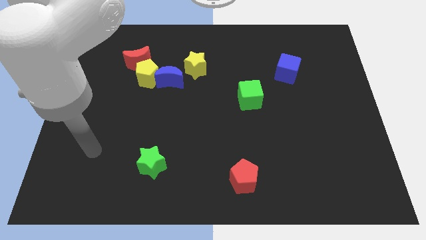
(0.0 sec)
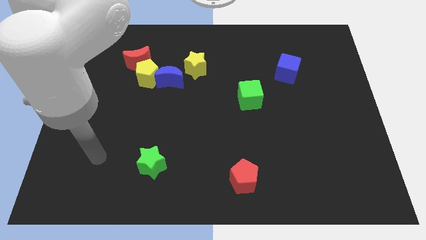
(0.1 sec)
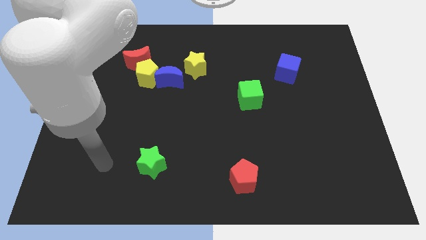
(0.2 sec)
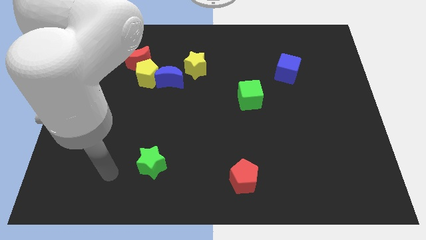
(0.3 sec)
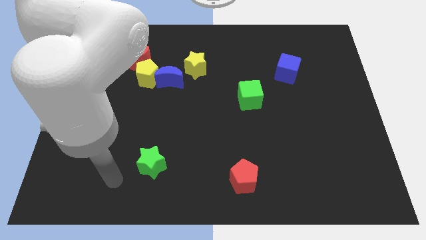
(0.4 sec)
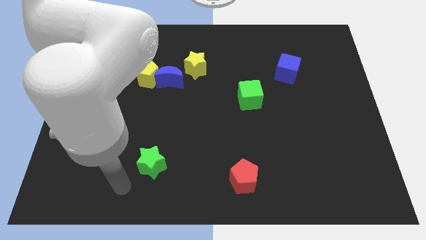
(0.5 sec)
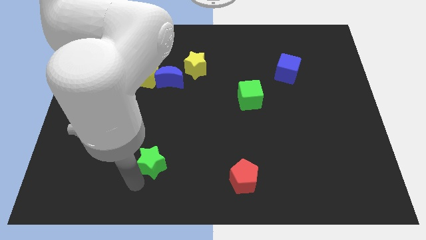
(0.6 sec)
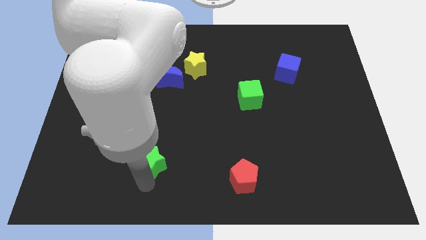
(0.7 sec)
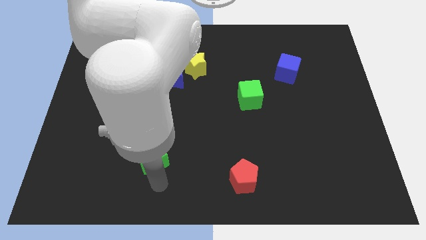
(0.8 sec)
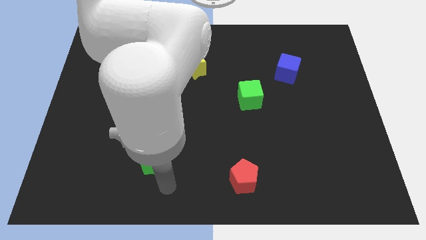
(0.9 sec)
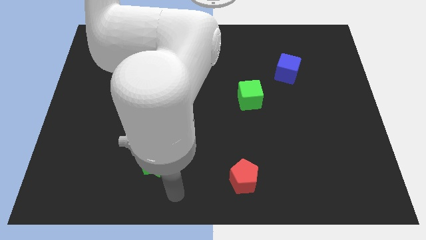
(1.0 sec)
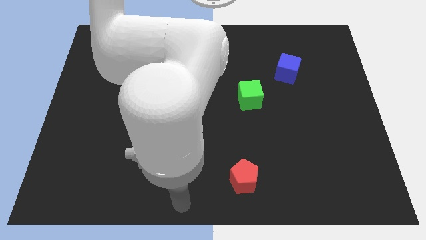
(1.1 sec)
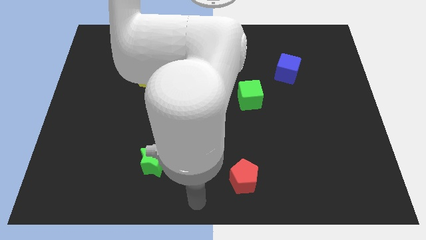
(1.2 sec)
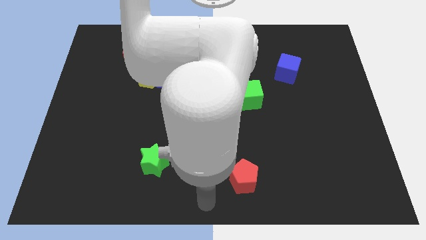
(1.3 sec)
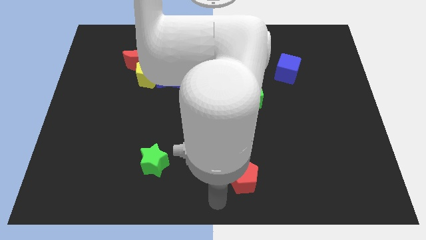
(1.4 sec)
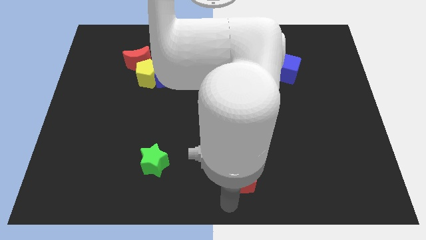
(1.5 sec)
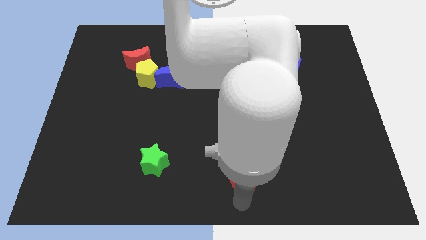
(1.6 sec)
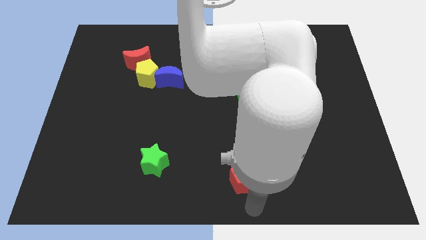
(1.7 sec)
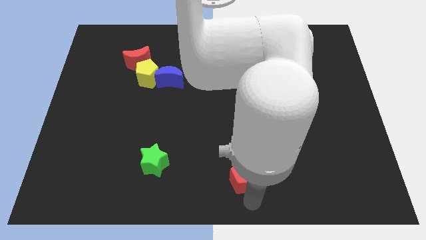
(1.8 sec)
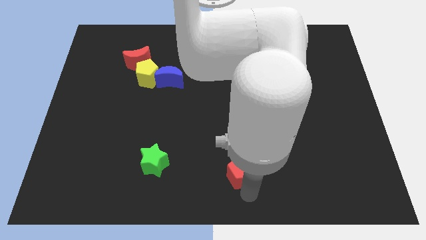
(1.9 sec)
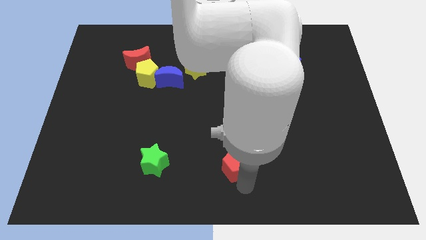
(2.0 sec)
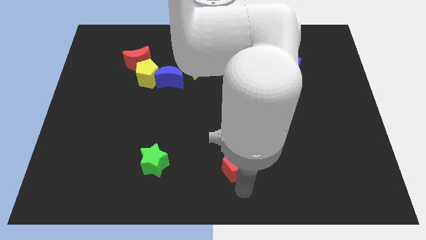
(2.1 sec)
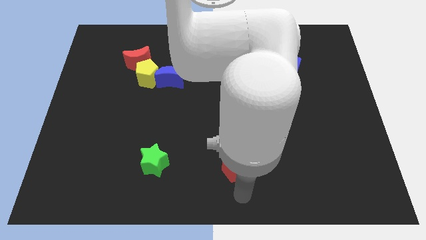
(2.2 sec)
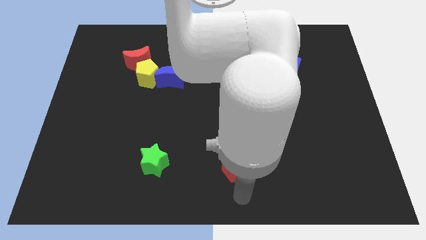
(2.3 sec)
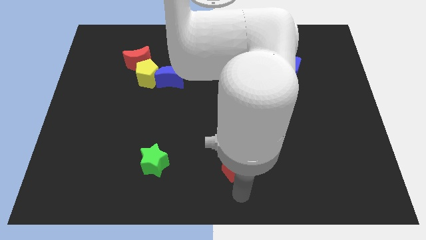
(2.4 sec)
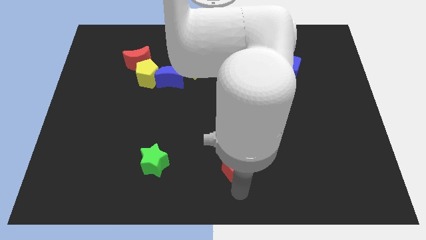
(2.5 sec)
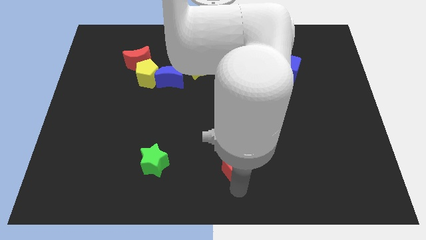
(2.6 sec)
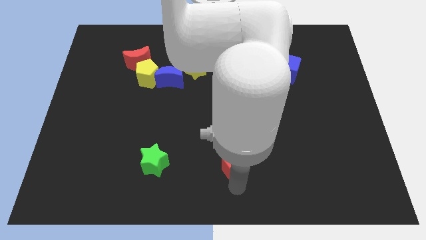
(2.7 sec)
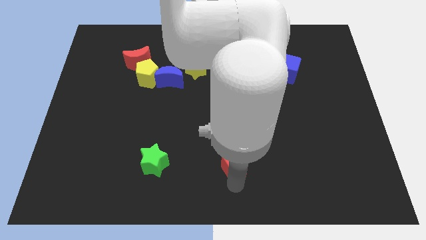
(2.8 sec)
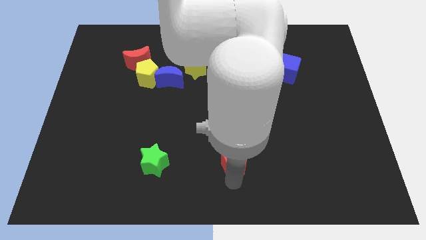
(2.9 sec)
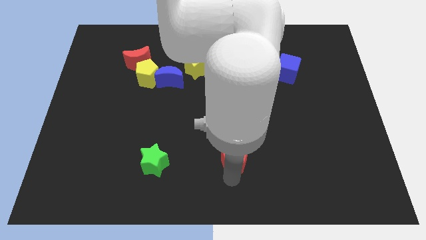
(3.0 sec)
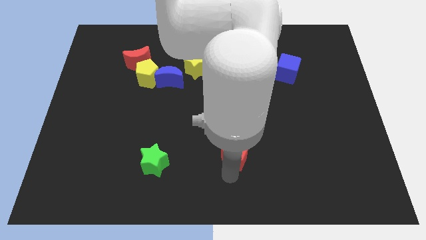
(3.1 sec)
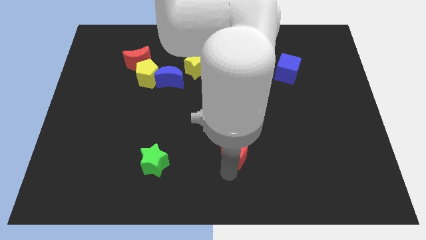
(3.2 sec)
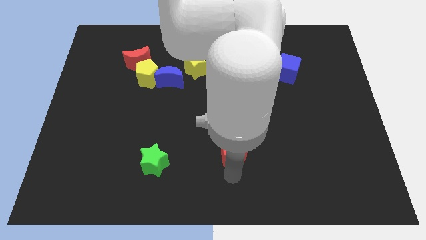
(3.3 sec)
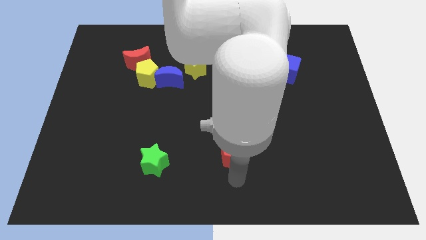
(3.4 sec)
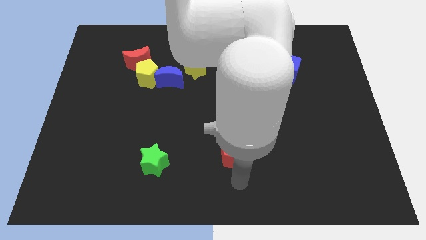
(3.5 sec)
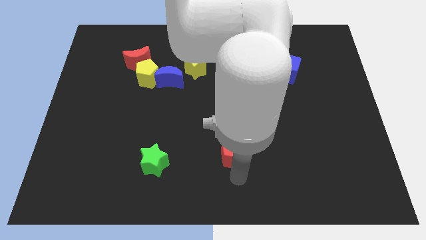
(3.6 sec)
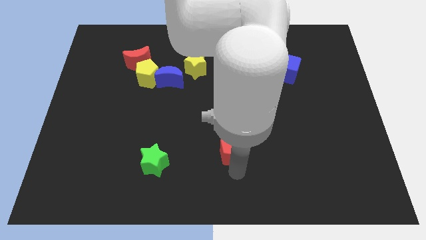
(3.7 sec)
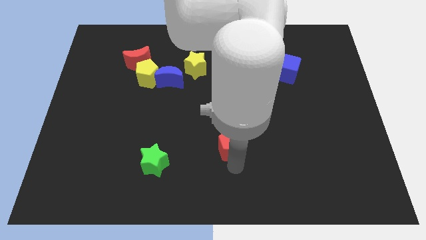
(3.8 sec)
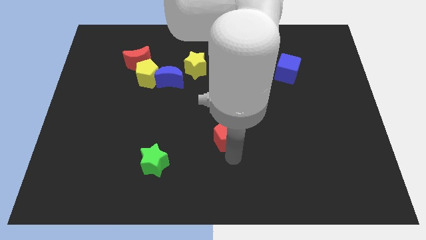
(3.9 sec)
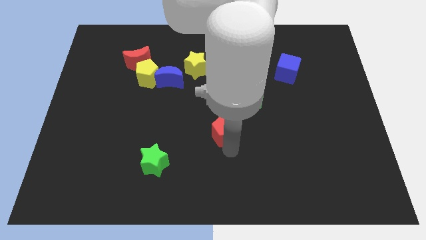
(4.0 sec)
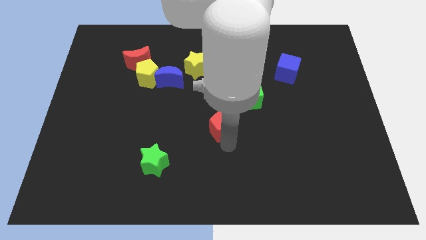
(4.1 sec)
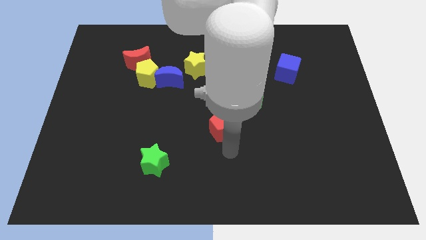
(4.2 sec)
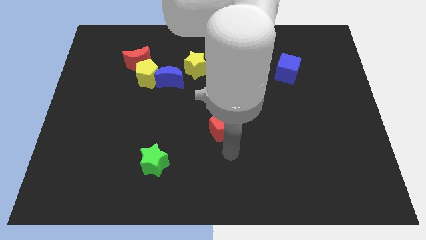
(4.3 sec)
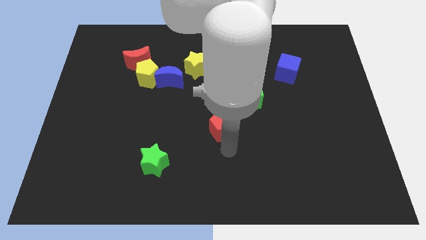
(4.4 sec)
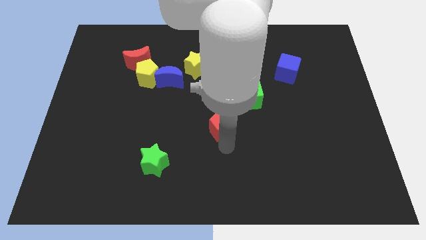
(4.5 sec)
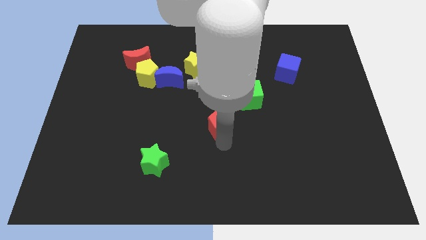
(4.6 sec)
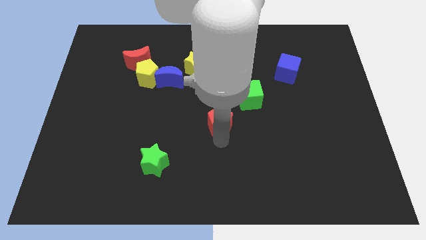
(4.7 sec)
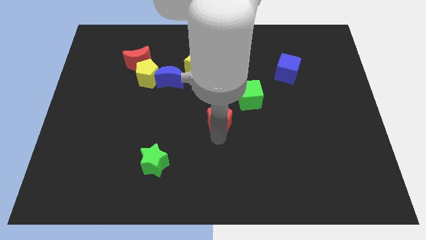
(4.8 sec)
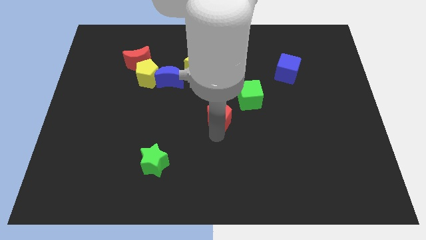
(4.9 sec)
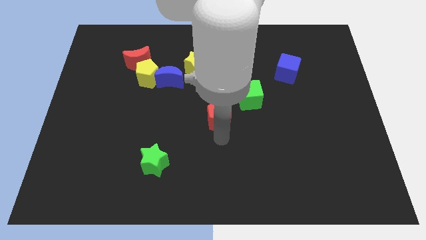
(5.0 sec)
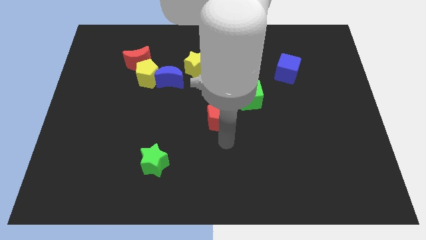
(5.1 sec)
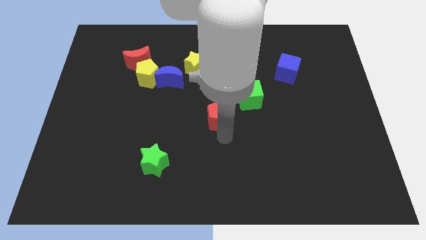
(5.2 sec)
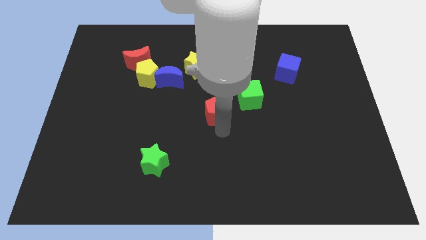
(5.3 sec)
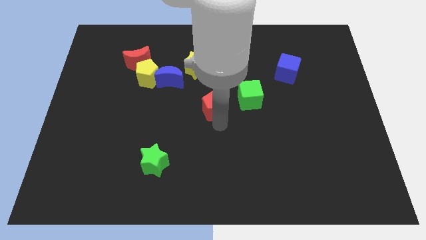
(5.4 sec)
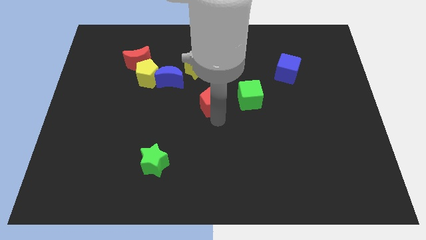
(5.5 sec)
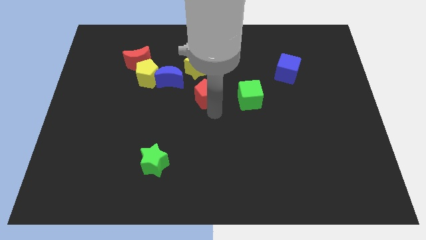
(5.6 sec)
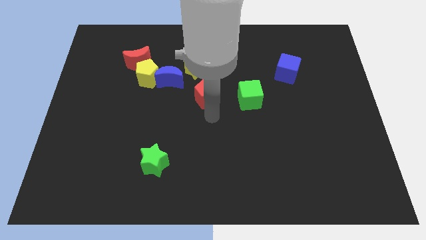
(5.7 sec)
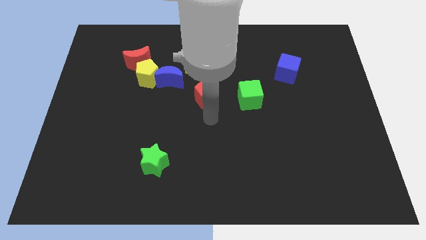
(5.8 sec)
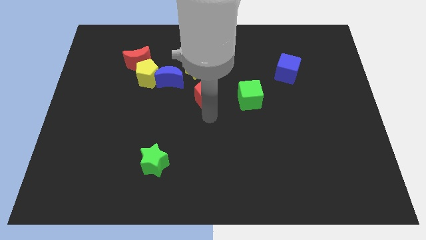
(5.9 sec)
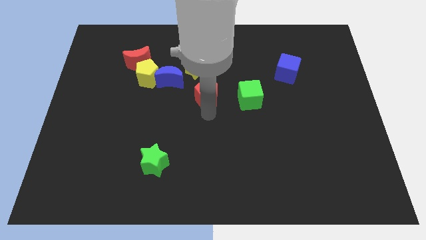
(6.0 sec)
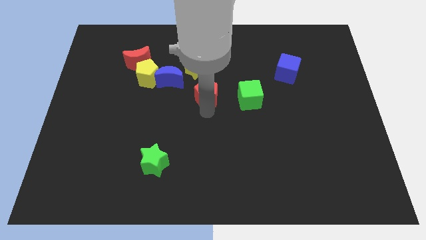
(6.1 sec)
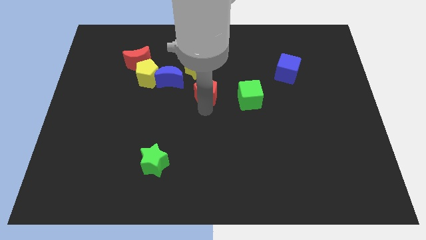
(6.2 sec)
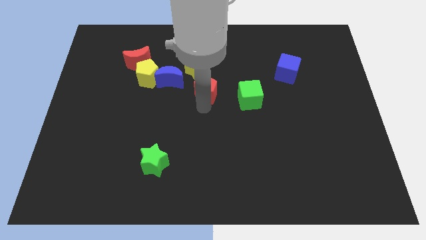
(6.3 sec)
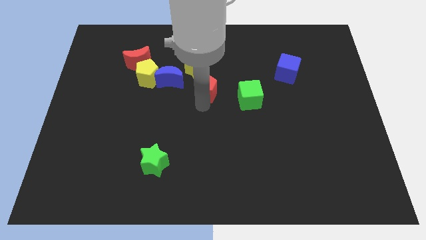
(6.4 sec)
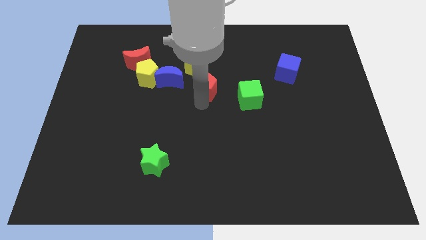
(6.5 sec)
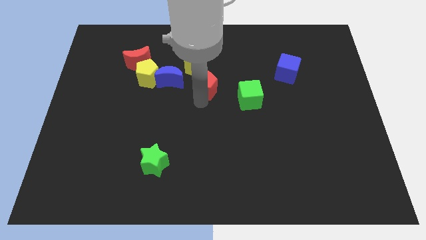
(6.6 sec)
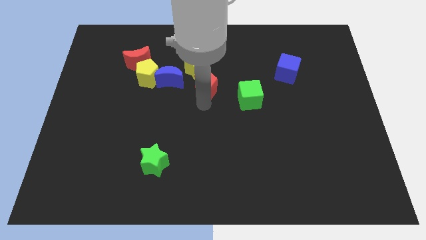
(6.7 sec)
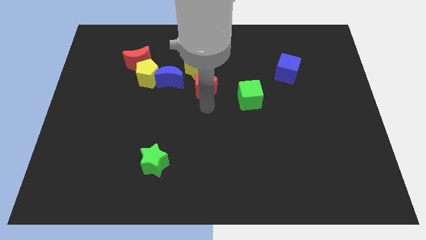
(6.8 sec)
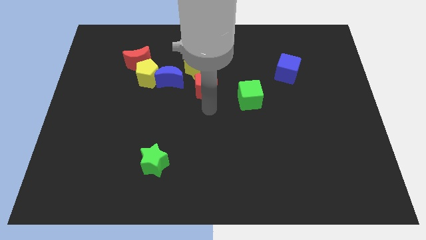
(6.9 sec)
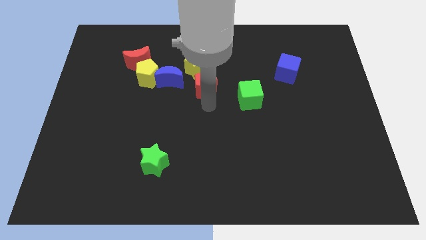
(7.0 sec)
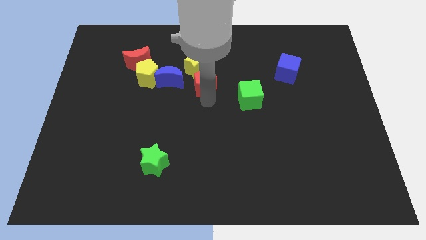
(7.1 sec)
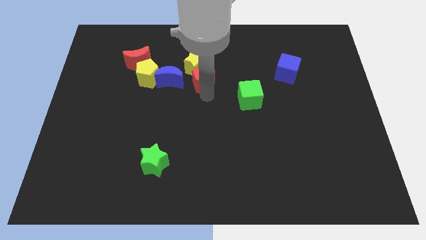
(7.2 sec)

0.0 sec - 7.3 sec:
move the red pentagon towards the yellow star

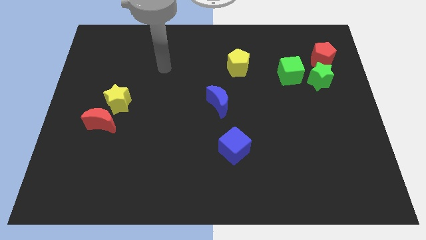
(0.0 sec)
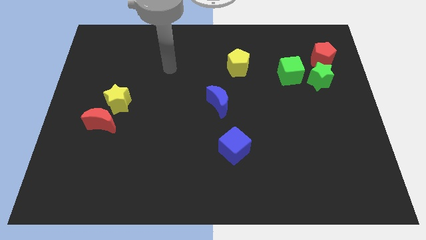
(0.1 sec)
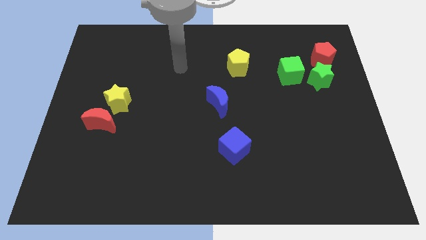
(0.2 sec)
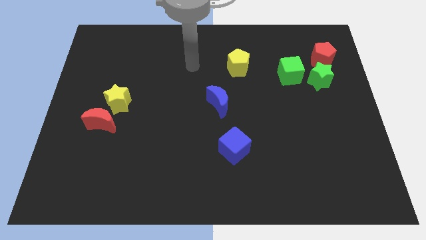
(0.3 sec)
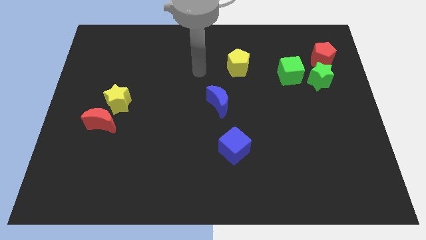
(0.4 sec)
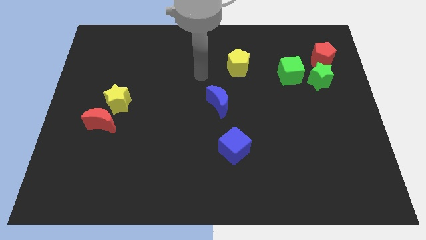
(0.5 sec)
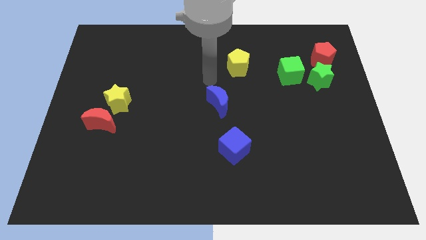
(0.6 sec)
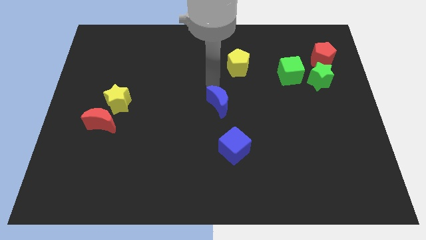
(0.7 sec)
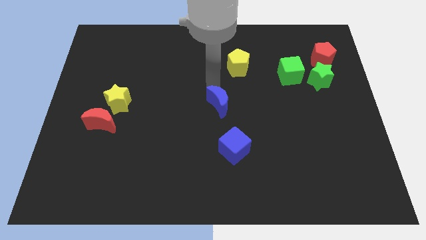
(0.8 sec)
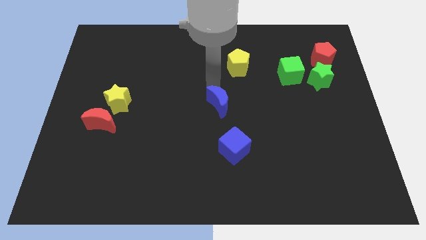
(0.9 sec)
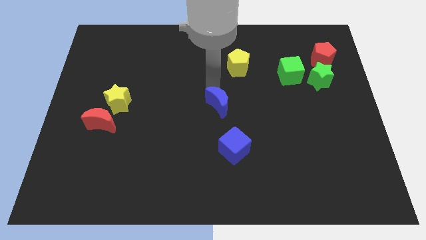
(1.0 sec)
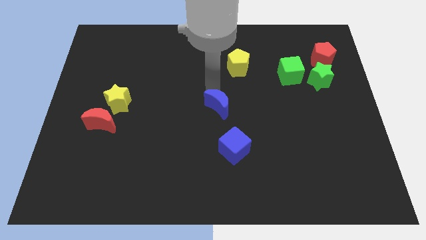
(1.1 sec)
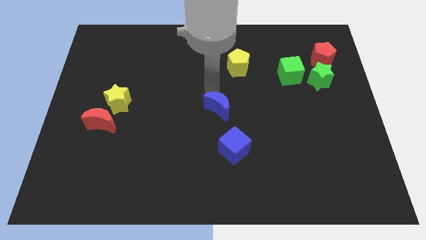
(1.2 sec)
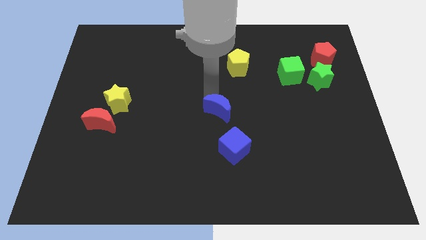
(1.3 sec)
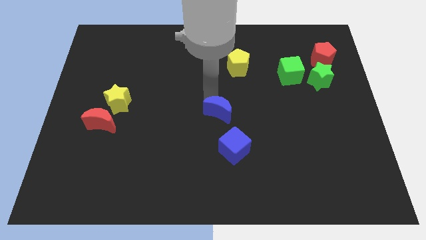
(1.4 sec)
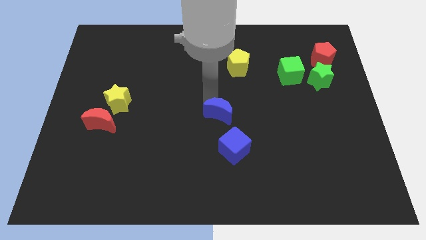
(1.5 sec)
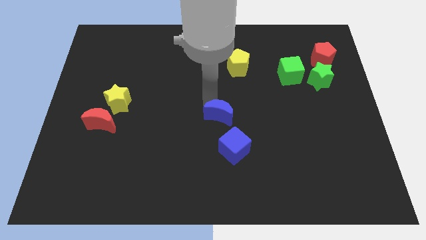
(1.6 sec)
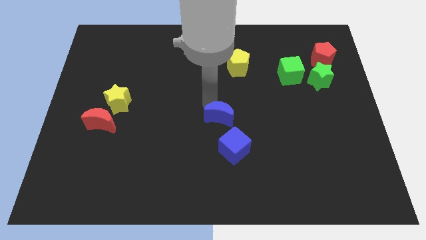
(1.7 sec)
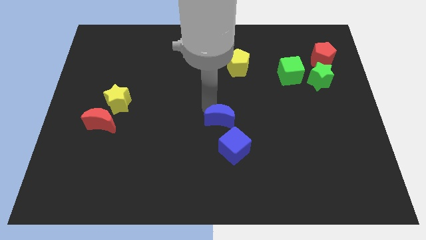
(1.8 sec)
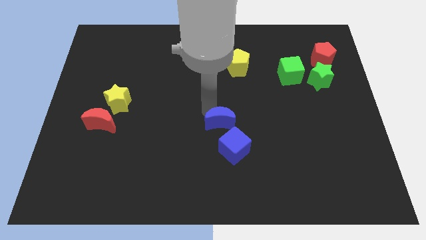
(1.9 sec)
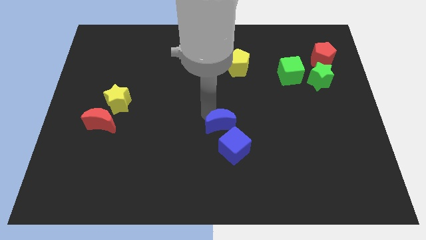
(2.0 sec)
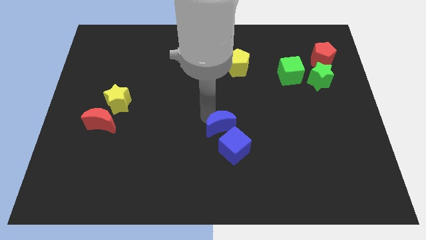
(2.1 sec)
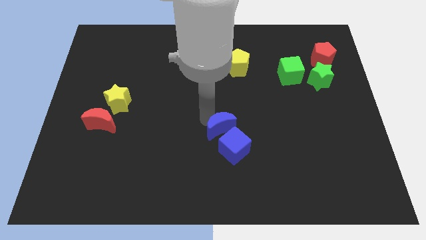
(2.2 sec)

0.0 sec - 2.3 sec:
slide the blue moon close to the blue cube
